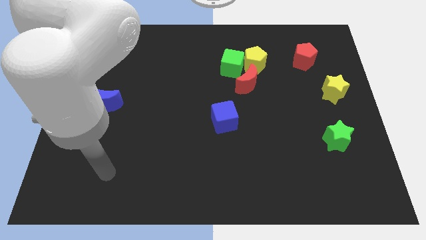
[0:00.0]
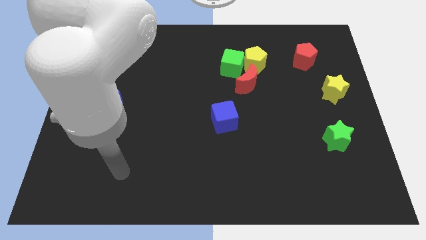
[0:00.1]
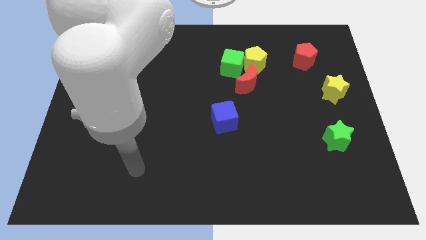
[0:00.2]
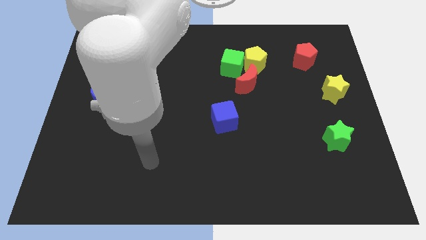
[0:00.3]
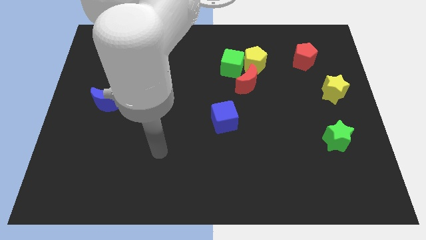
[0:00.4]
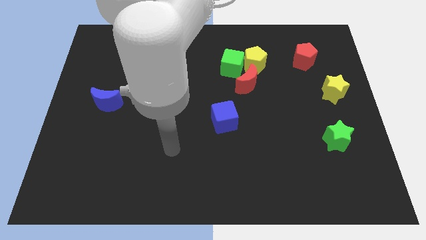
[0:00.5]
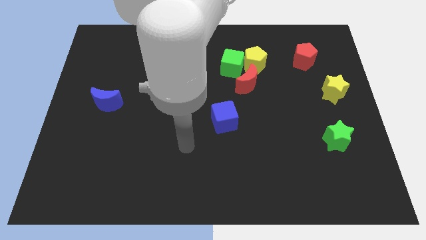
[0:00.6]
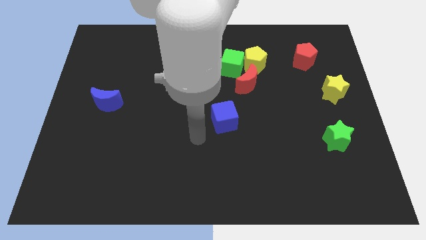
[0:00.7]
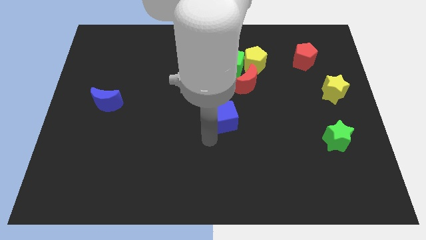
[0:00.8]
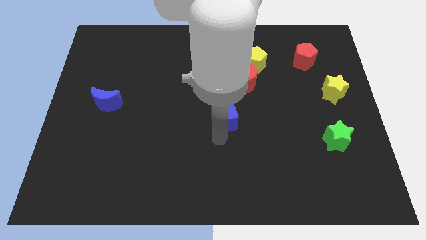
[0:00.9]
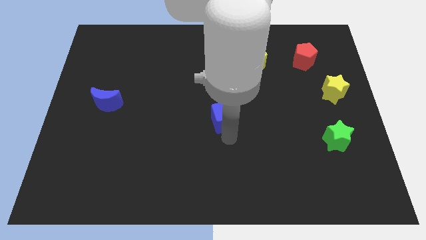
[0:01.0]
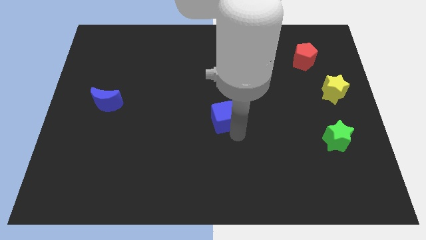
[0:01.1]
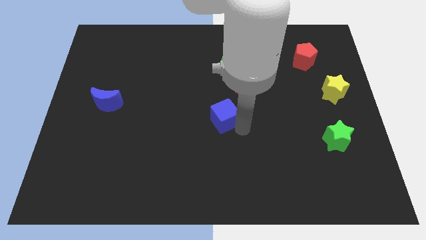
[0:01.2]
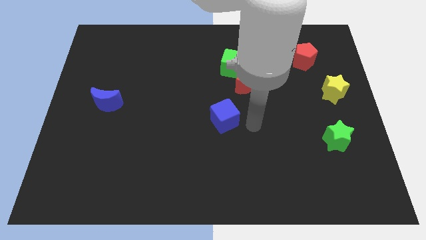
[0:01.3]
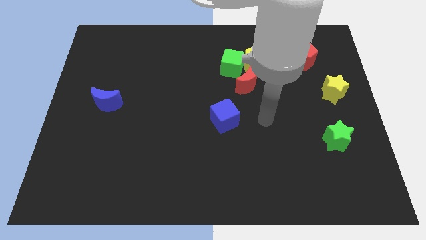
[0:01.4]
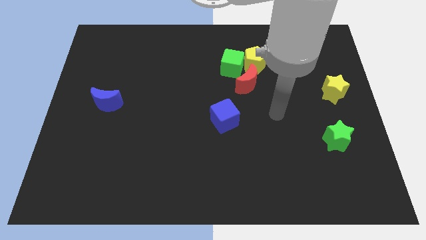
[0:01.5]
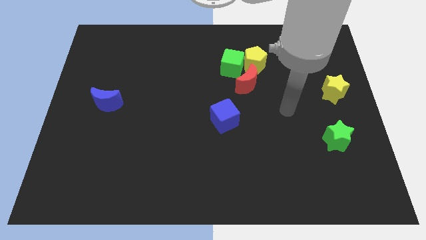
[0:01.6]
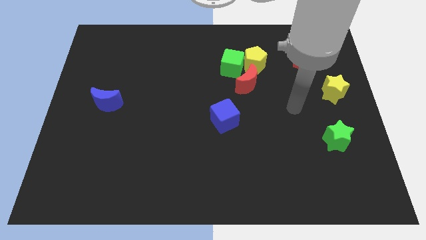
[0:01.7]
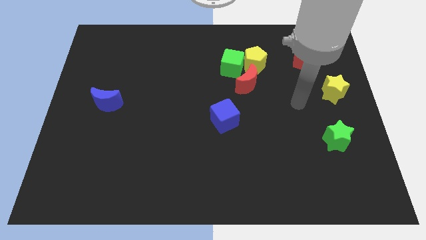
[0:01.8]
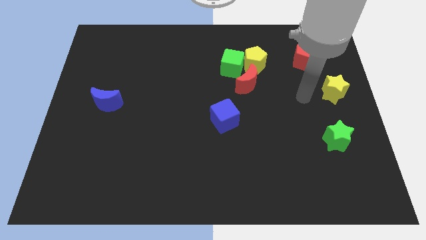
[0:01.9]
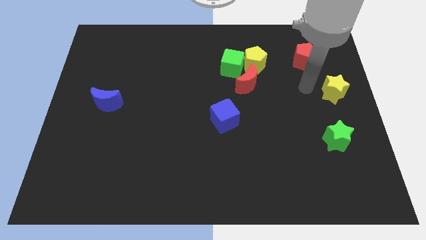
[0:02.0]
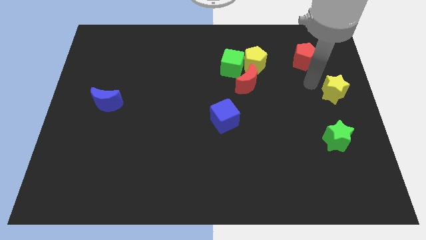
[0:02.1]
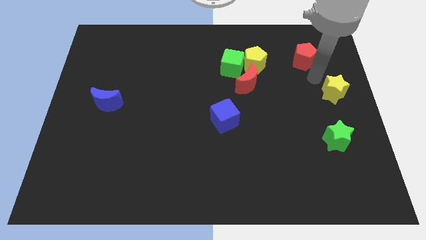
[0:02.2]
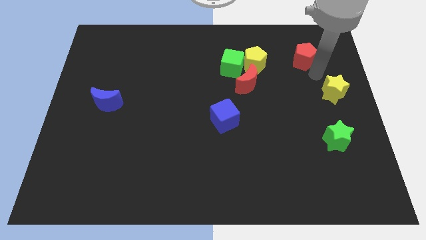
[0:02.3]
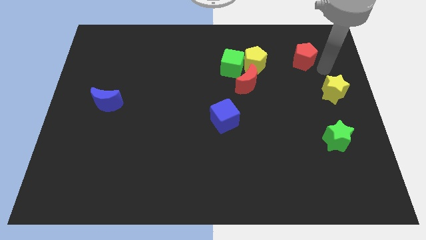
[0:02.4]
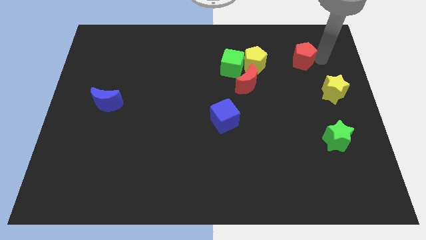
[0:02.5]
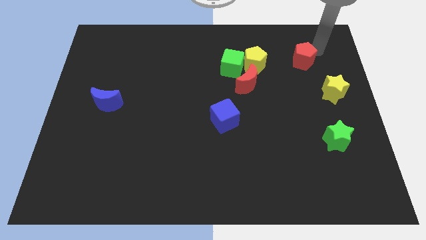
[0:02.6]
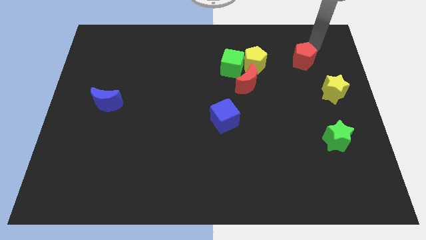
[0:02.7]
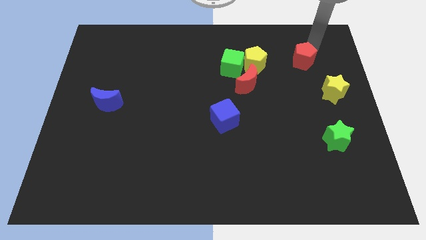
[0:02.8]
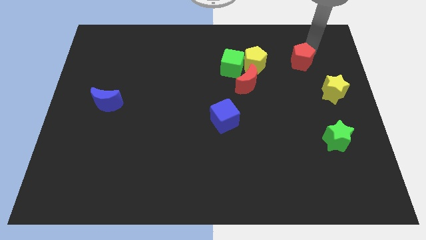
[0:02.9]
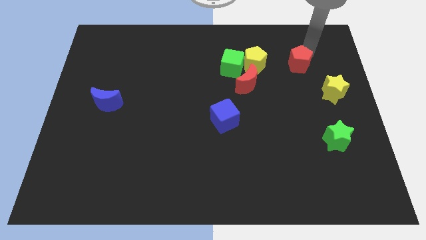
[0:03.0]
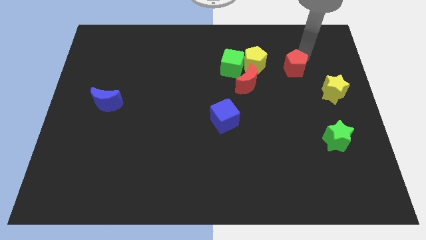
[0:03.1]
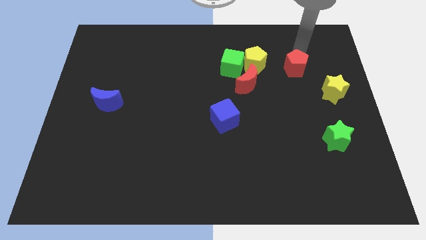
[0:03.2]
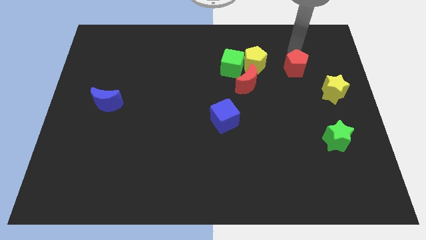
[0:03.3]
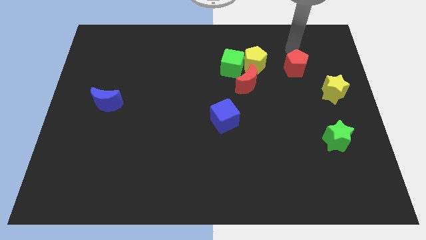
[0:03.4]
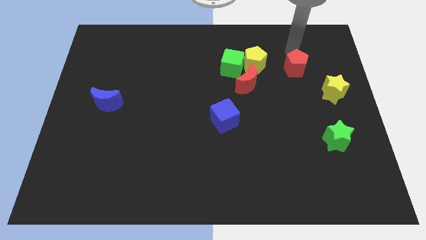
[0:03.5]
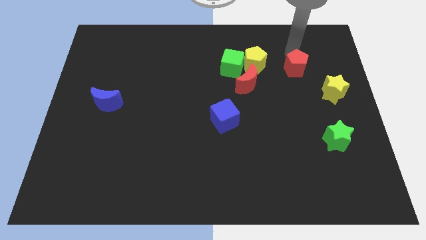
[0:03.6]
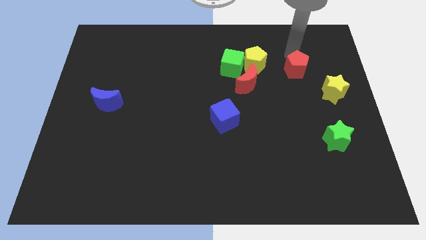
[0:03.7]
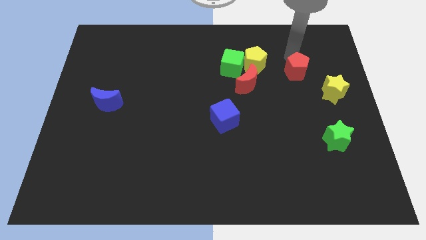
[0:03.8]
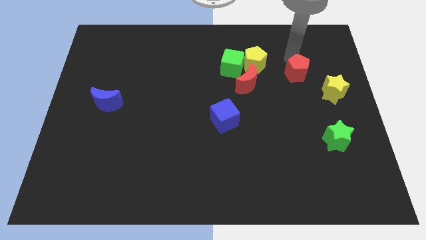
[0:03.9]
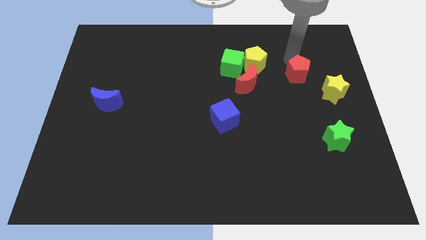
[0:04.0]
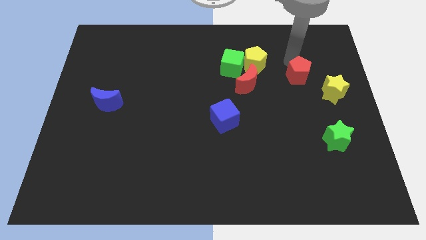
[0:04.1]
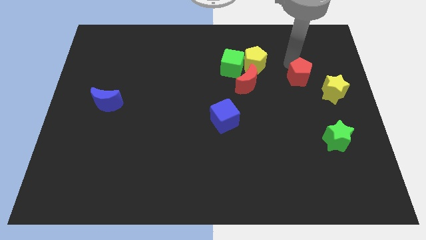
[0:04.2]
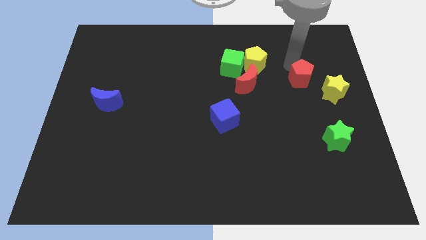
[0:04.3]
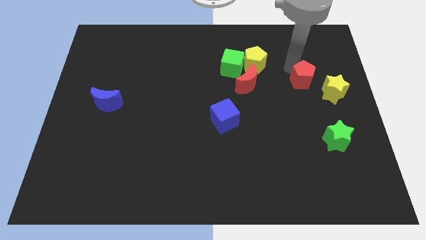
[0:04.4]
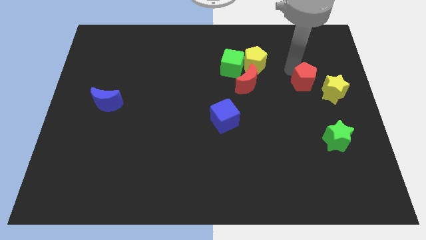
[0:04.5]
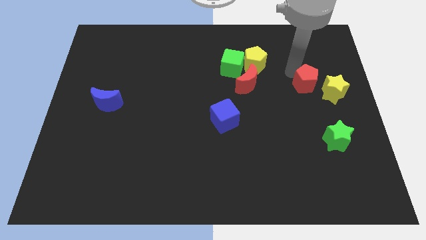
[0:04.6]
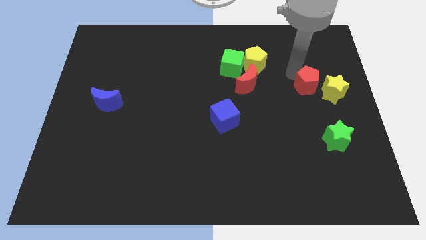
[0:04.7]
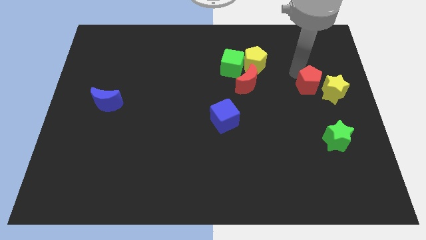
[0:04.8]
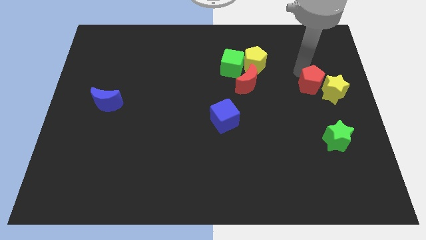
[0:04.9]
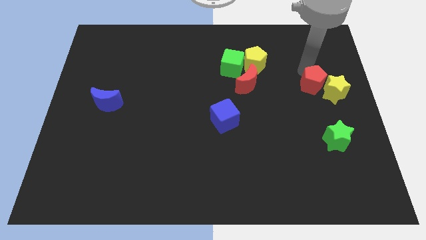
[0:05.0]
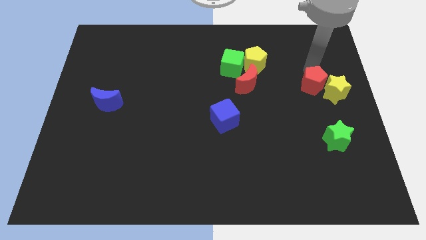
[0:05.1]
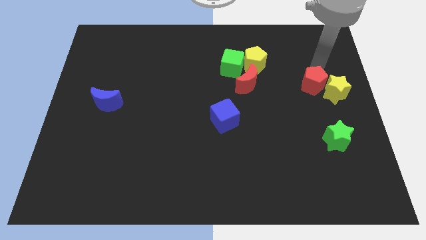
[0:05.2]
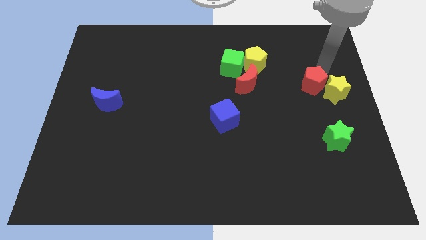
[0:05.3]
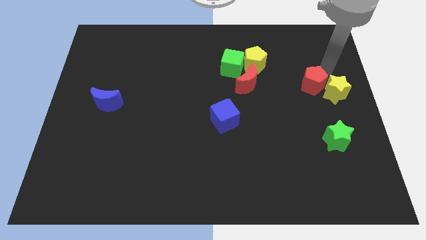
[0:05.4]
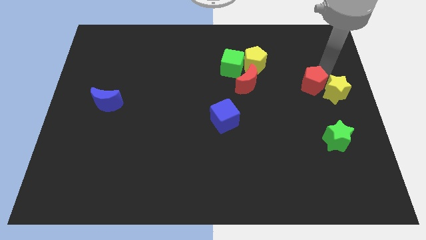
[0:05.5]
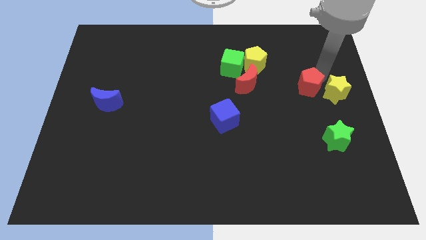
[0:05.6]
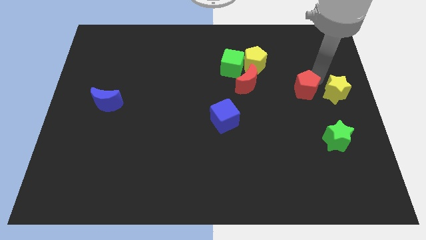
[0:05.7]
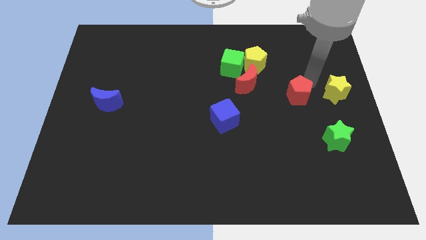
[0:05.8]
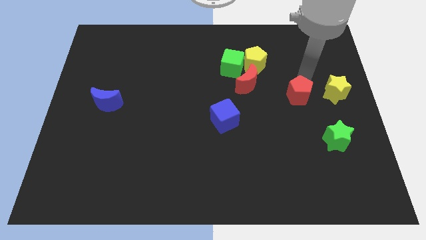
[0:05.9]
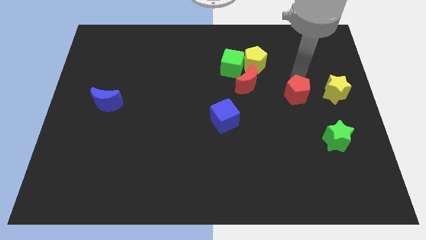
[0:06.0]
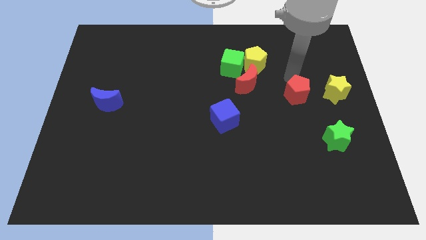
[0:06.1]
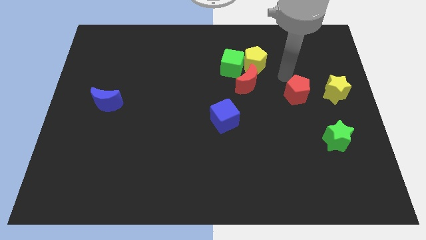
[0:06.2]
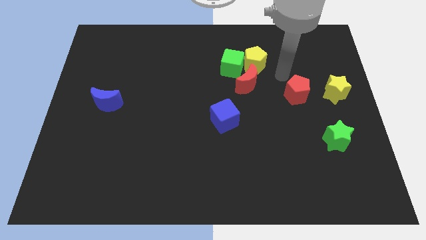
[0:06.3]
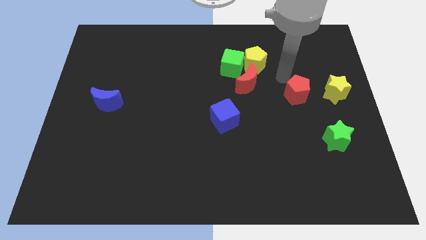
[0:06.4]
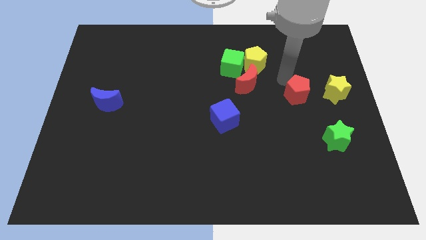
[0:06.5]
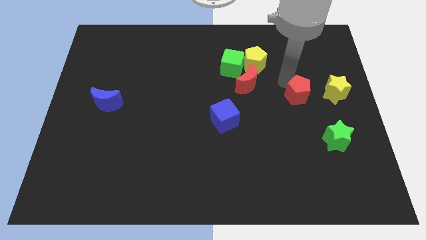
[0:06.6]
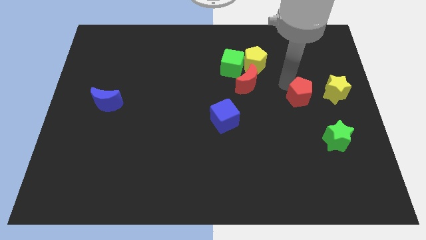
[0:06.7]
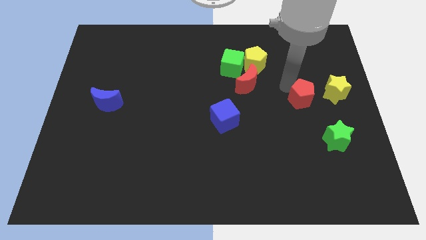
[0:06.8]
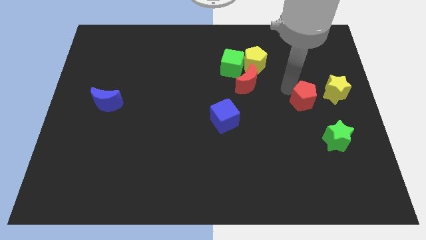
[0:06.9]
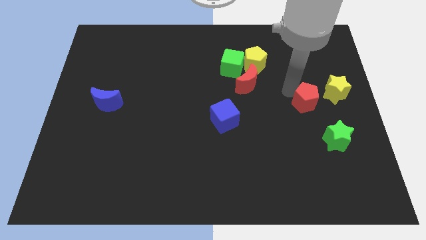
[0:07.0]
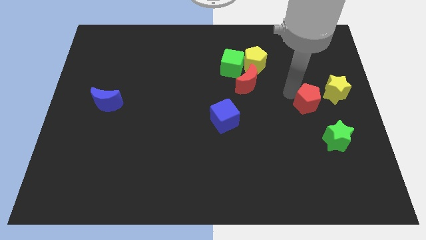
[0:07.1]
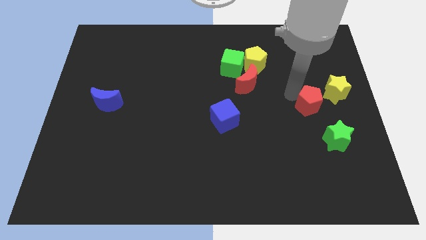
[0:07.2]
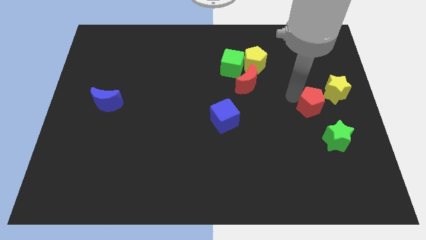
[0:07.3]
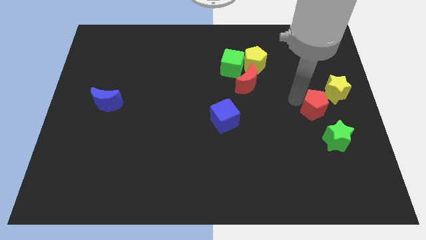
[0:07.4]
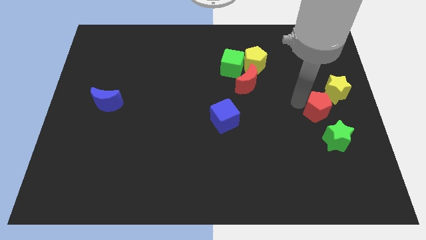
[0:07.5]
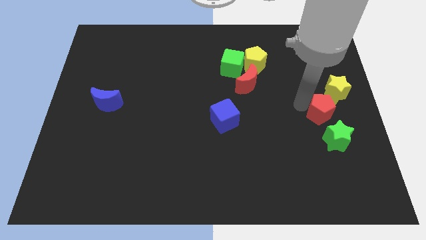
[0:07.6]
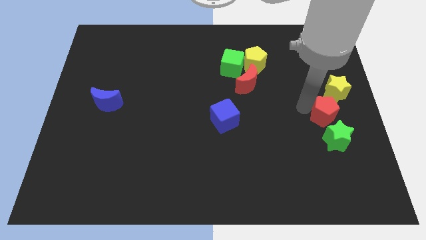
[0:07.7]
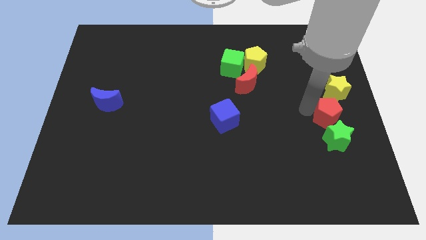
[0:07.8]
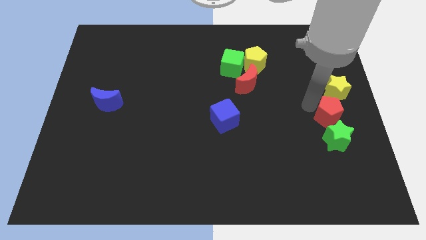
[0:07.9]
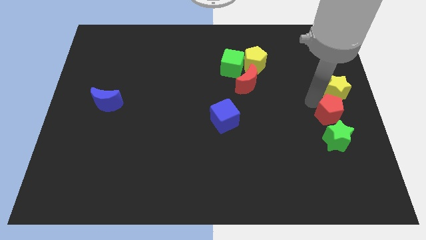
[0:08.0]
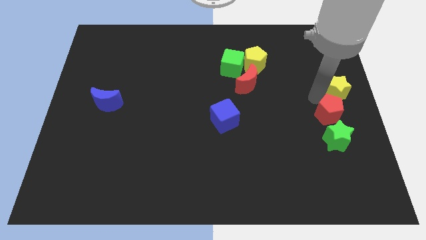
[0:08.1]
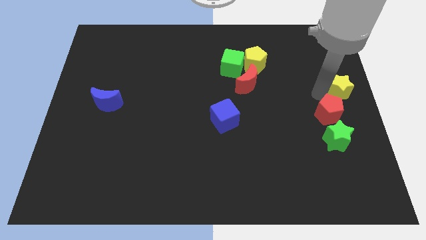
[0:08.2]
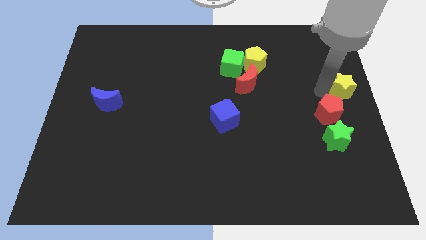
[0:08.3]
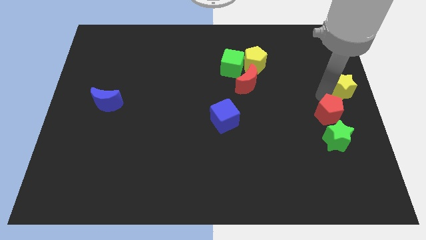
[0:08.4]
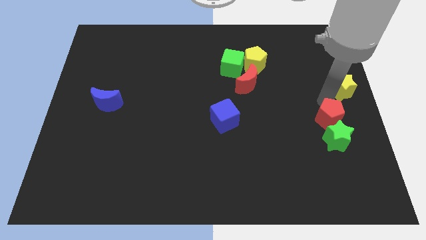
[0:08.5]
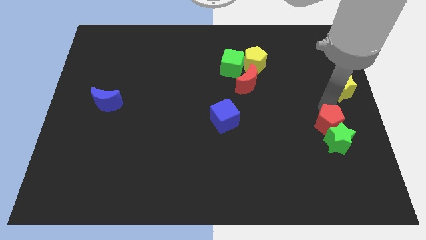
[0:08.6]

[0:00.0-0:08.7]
move the red pentagon close to the green star
